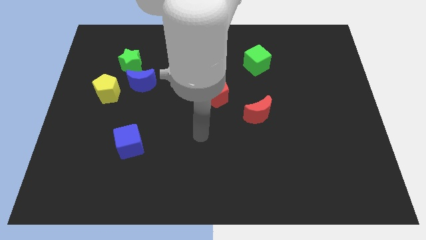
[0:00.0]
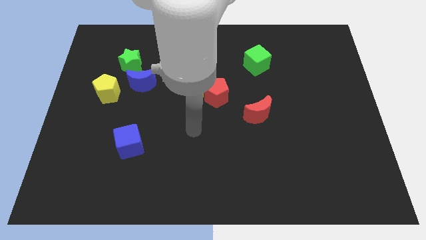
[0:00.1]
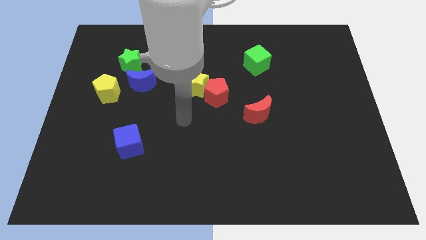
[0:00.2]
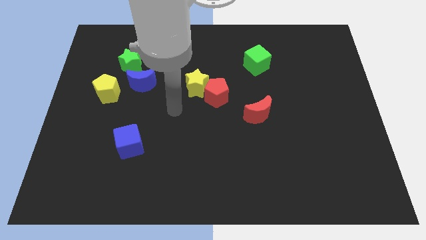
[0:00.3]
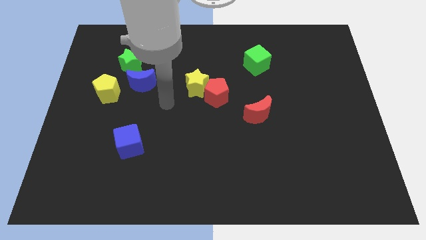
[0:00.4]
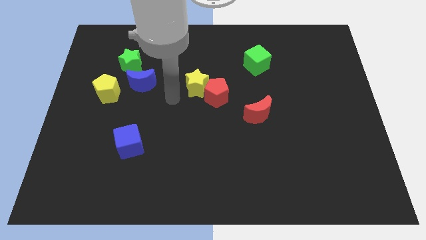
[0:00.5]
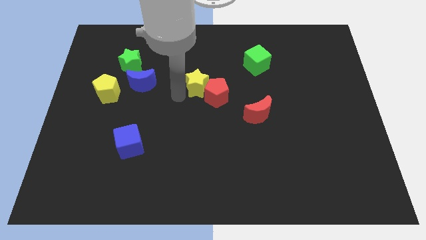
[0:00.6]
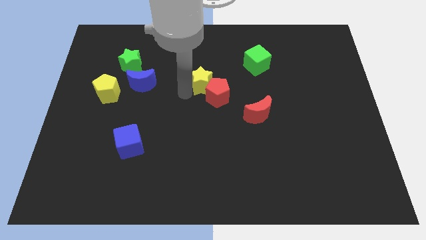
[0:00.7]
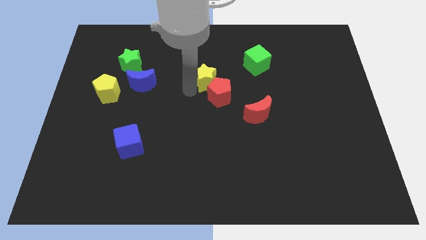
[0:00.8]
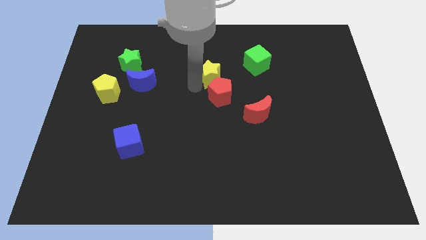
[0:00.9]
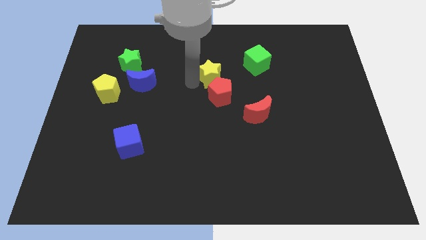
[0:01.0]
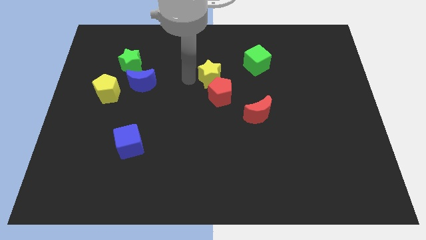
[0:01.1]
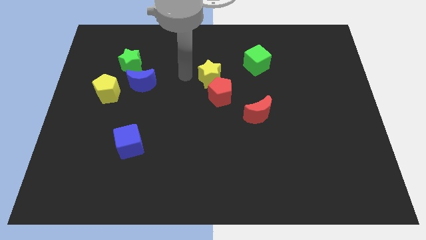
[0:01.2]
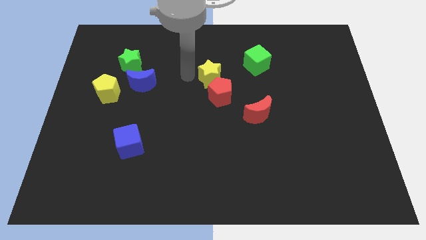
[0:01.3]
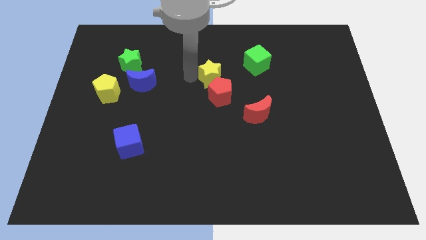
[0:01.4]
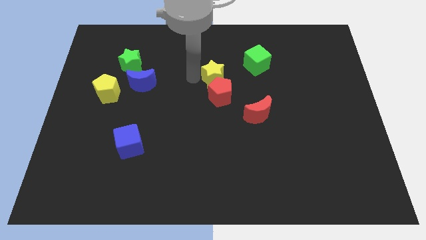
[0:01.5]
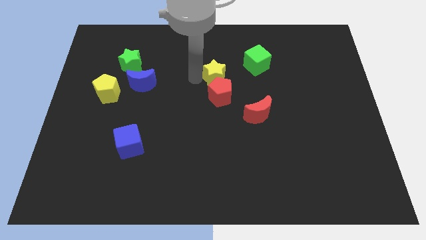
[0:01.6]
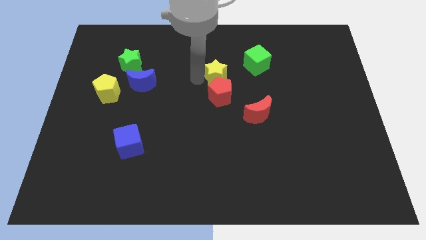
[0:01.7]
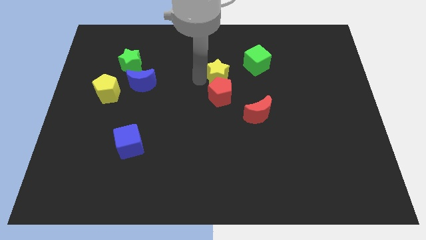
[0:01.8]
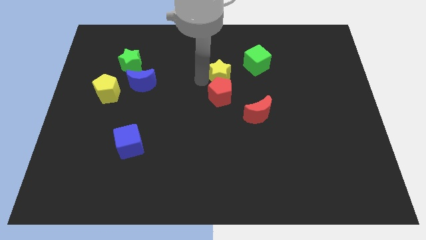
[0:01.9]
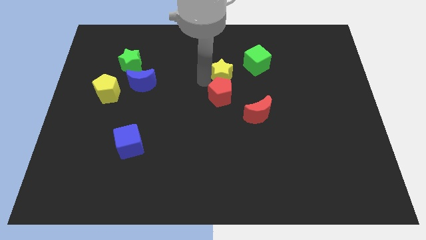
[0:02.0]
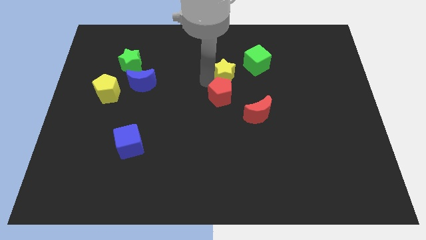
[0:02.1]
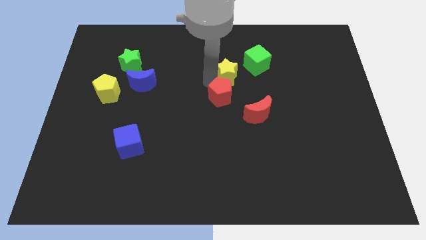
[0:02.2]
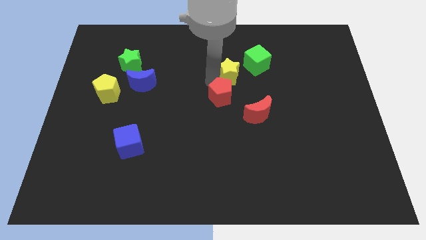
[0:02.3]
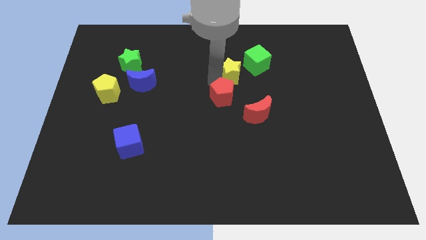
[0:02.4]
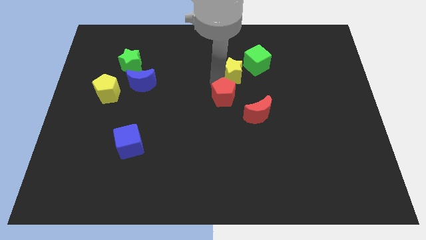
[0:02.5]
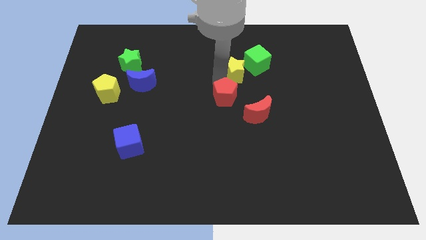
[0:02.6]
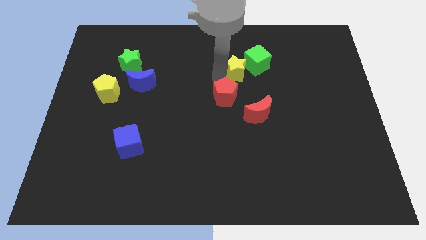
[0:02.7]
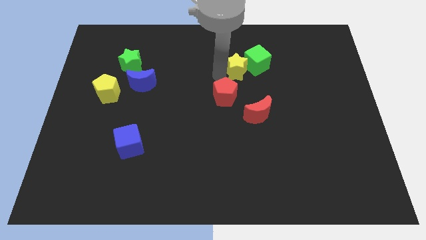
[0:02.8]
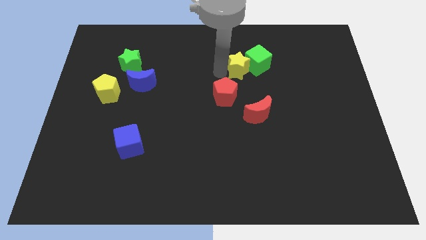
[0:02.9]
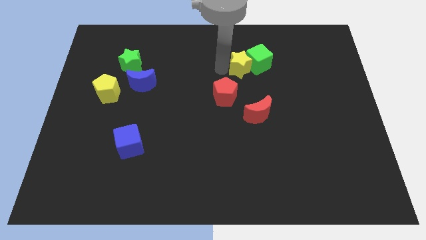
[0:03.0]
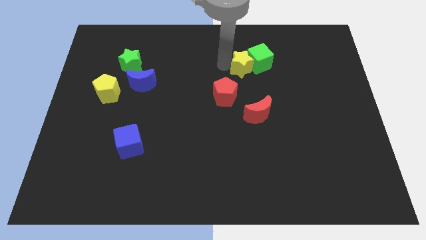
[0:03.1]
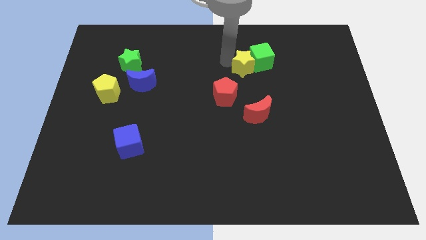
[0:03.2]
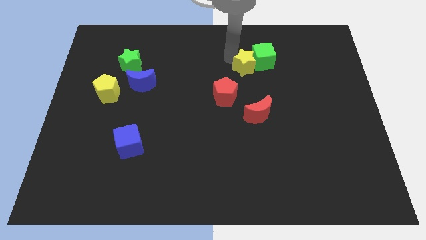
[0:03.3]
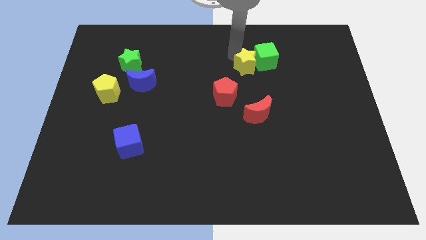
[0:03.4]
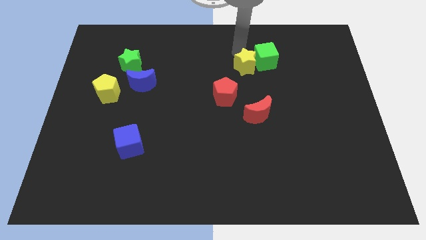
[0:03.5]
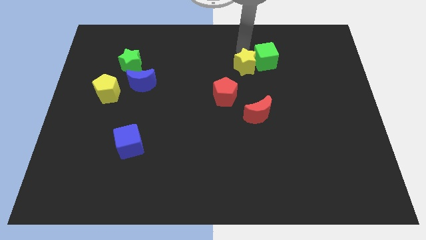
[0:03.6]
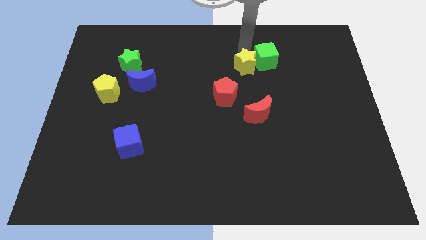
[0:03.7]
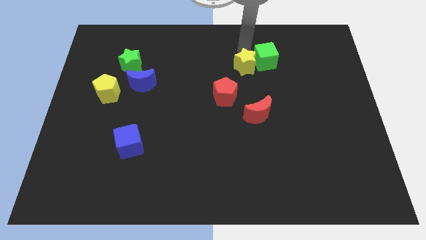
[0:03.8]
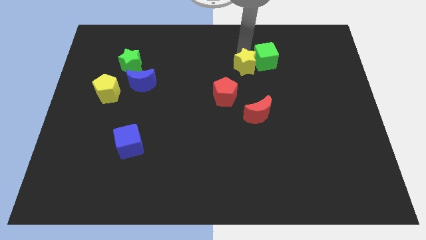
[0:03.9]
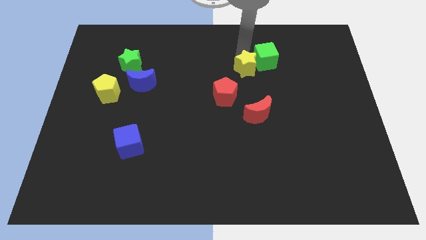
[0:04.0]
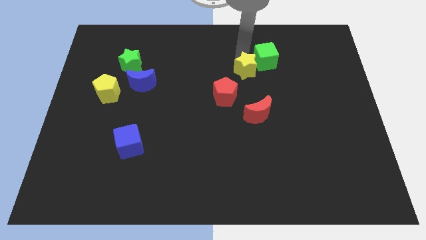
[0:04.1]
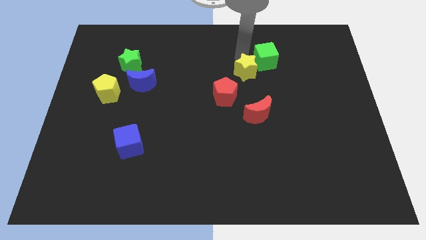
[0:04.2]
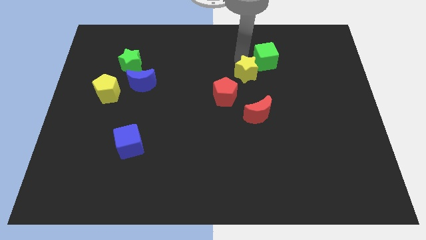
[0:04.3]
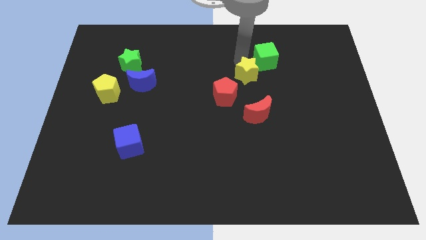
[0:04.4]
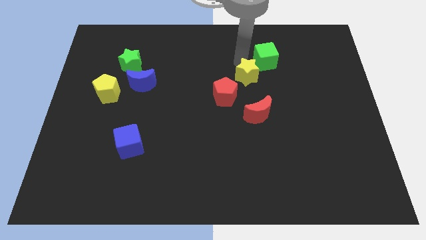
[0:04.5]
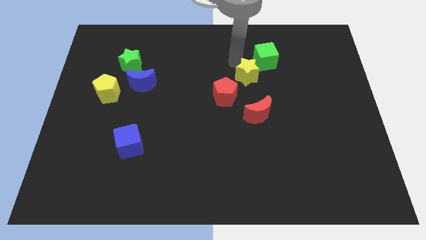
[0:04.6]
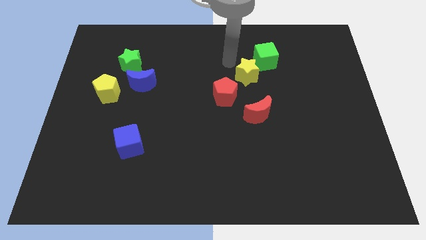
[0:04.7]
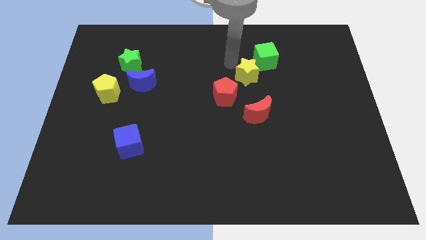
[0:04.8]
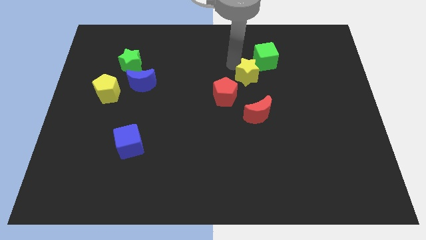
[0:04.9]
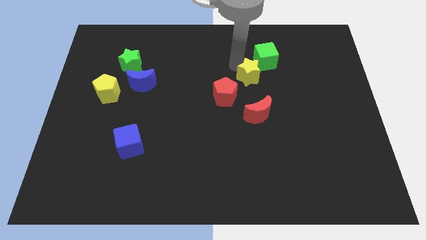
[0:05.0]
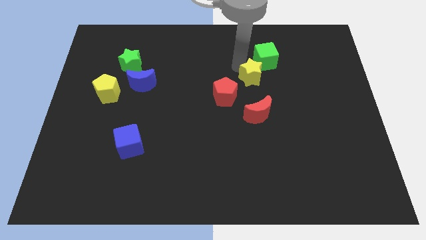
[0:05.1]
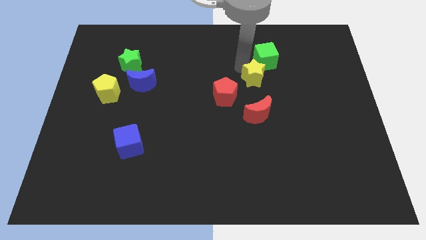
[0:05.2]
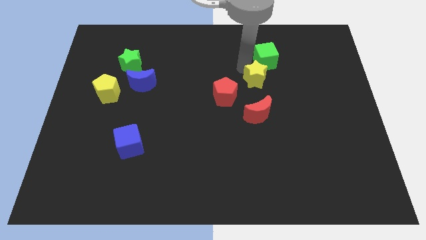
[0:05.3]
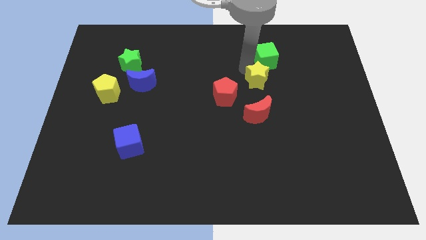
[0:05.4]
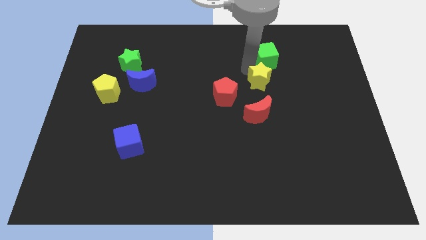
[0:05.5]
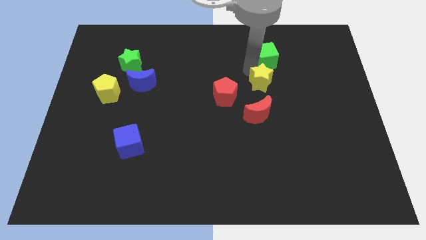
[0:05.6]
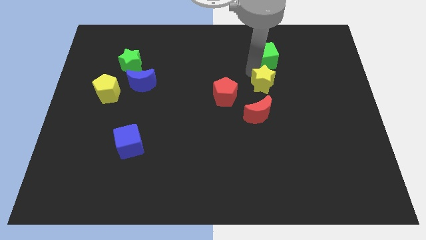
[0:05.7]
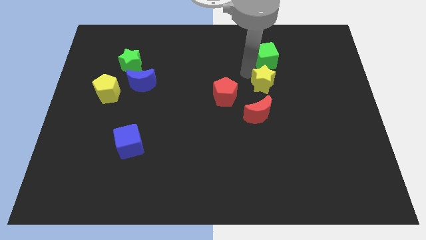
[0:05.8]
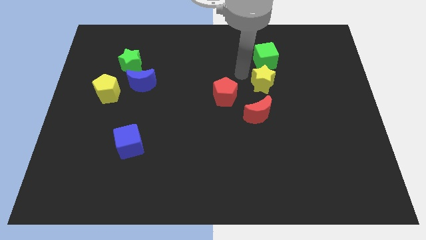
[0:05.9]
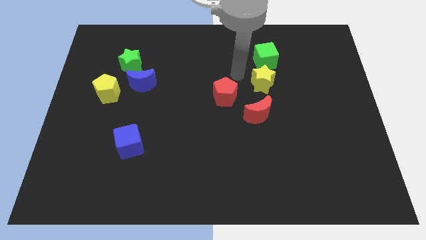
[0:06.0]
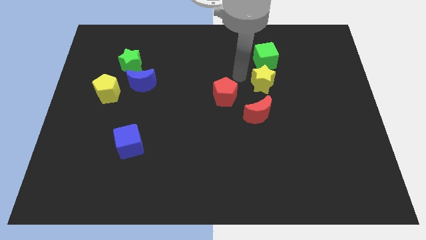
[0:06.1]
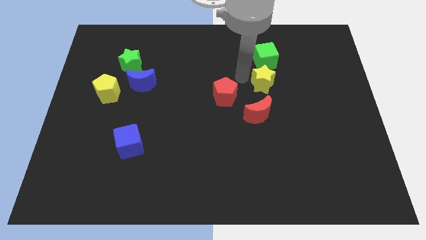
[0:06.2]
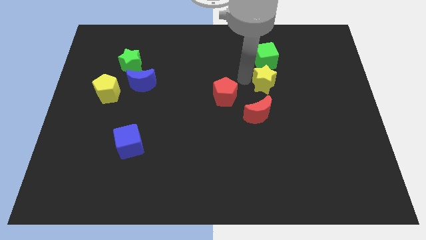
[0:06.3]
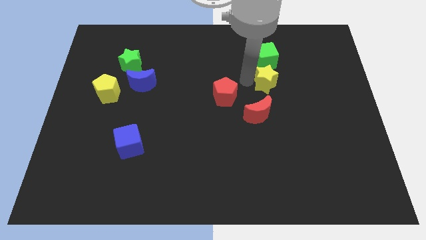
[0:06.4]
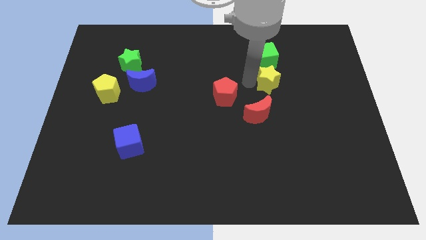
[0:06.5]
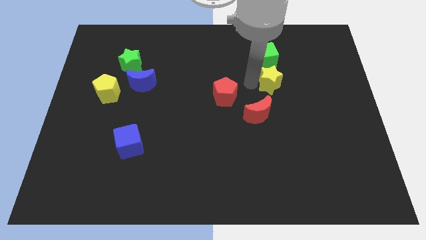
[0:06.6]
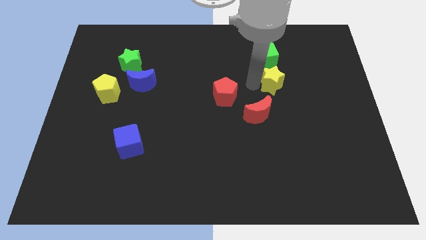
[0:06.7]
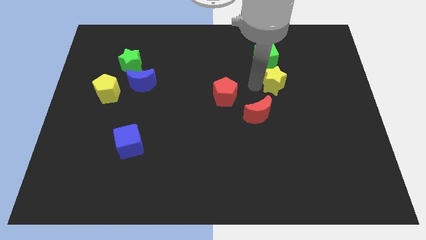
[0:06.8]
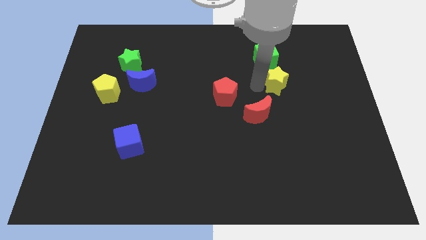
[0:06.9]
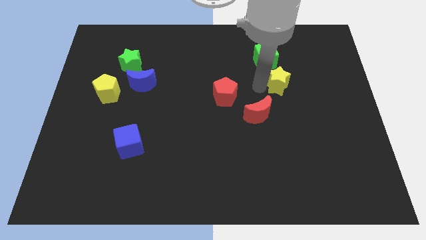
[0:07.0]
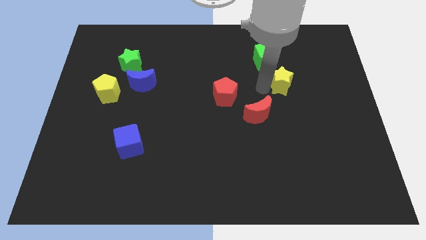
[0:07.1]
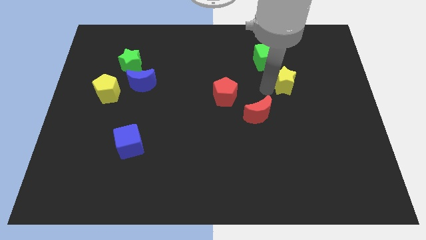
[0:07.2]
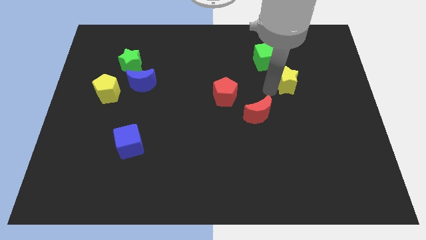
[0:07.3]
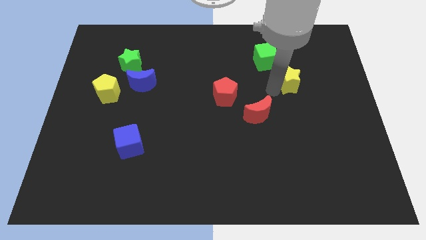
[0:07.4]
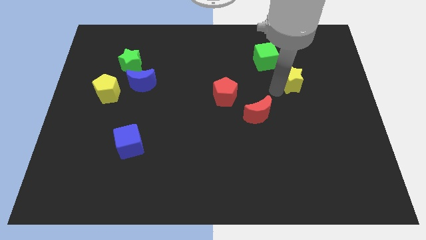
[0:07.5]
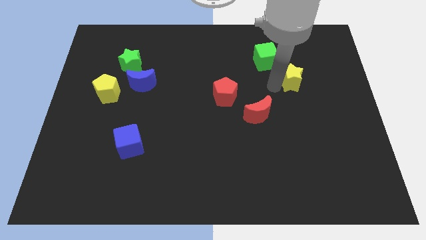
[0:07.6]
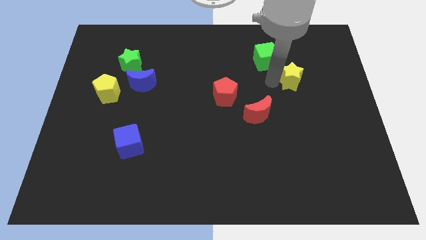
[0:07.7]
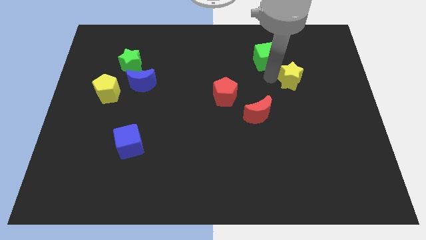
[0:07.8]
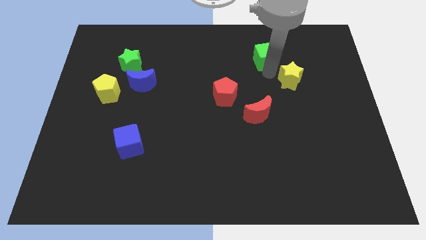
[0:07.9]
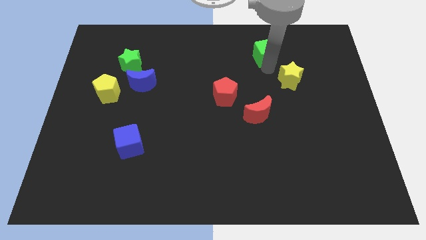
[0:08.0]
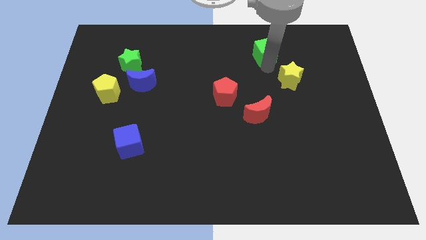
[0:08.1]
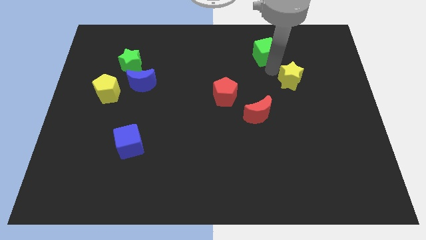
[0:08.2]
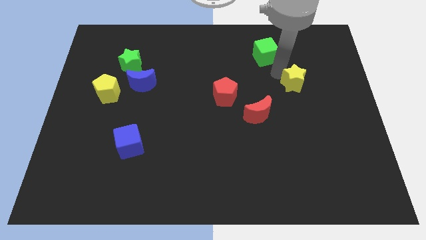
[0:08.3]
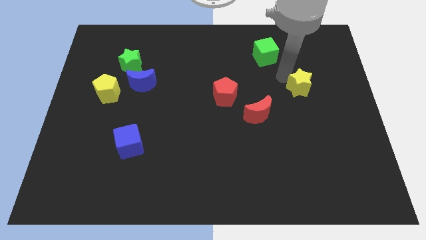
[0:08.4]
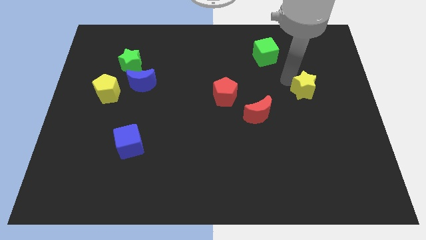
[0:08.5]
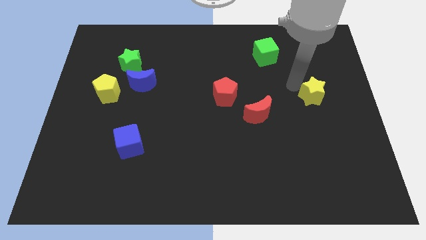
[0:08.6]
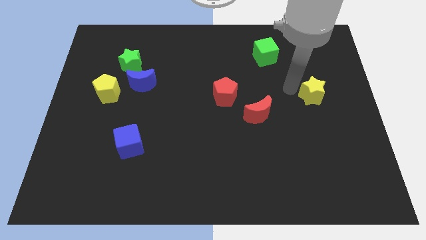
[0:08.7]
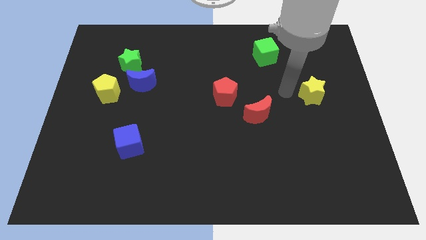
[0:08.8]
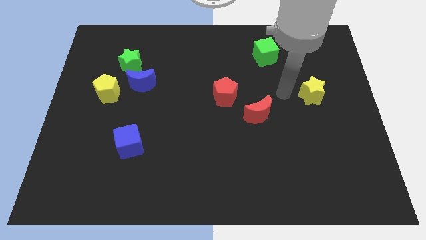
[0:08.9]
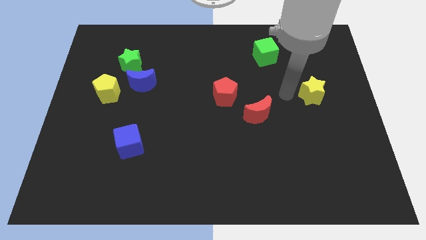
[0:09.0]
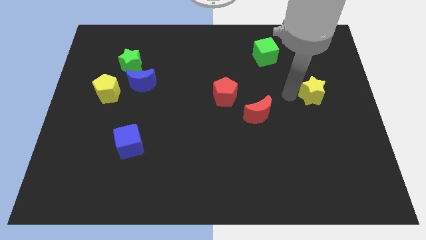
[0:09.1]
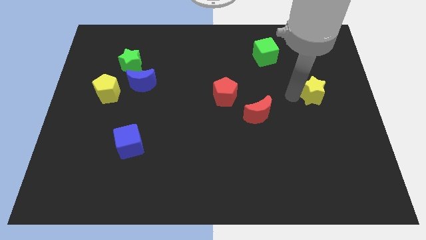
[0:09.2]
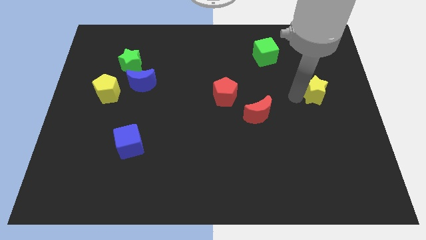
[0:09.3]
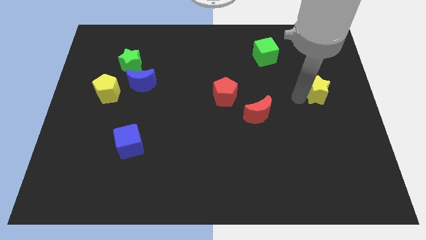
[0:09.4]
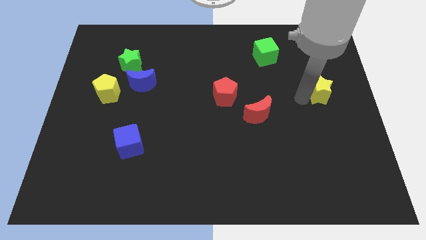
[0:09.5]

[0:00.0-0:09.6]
push the yellow star to the right side of the board
